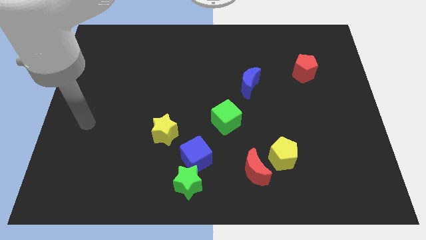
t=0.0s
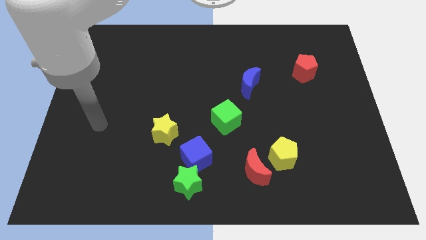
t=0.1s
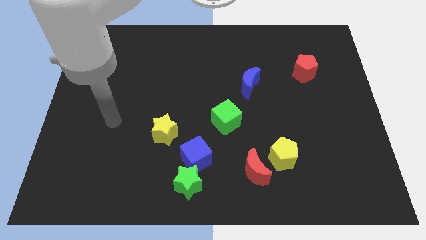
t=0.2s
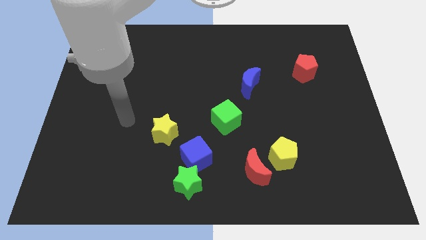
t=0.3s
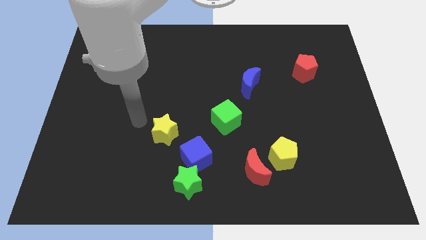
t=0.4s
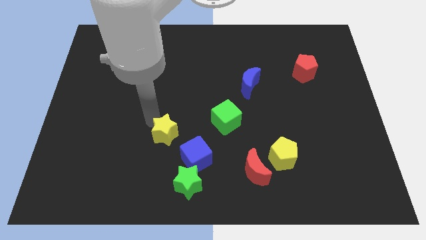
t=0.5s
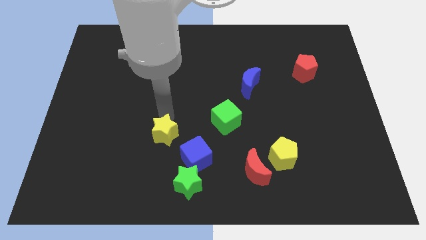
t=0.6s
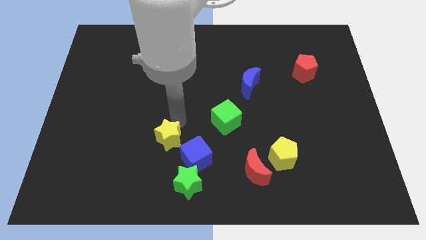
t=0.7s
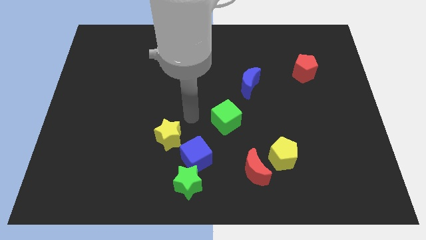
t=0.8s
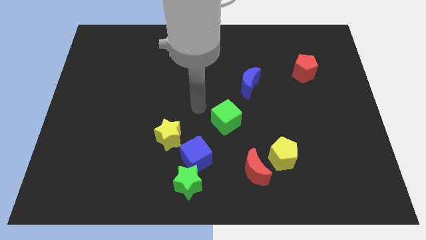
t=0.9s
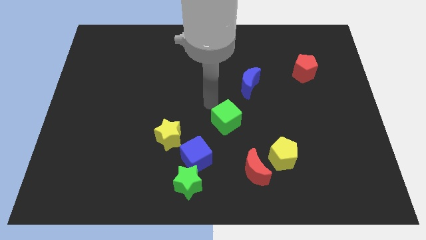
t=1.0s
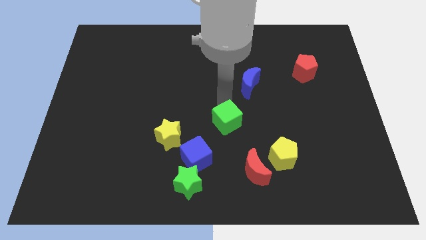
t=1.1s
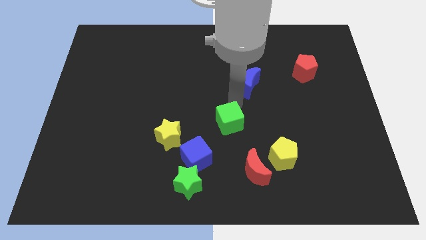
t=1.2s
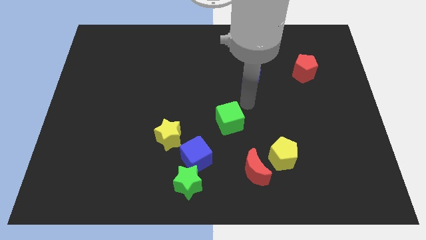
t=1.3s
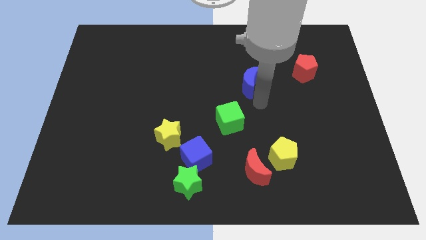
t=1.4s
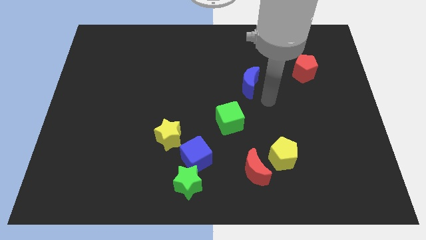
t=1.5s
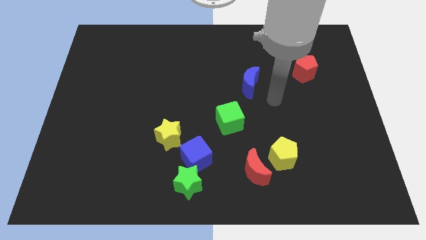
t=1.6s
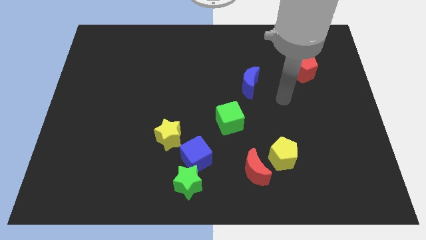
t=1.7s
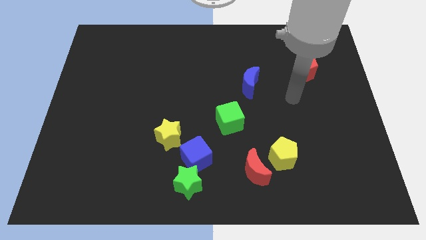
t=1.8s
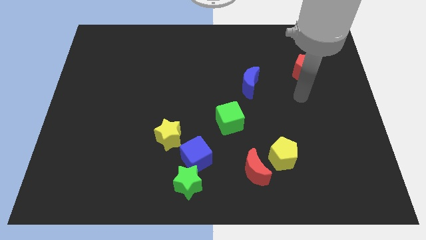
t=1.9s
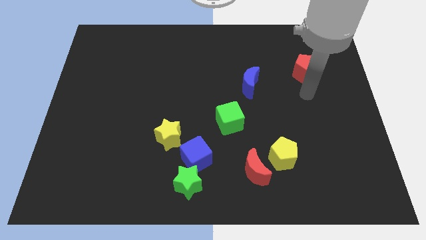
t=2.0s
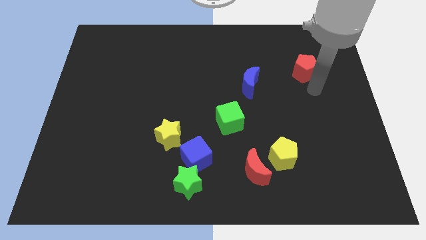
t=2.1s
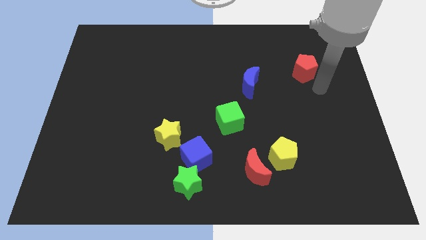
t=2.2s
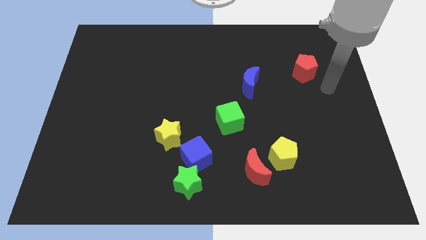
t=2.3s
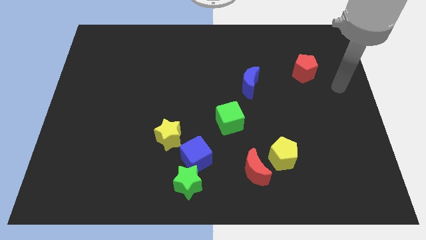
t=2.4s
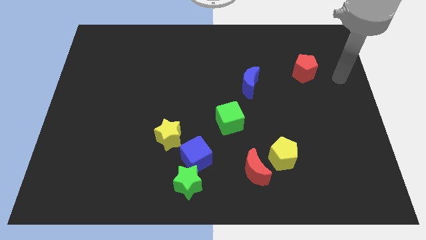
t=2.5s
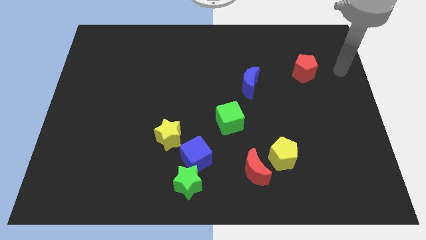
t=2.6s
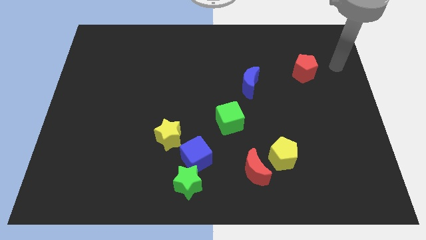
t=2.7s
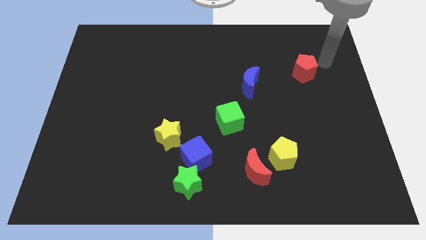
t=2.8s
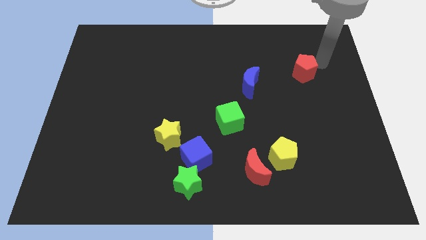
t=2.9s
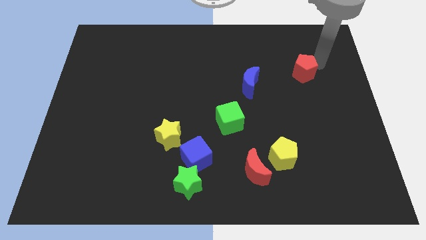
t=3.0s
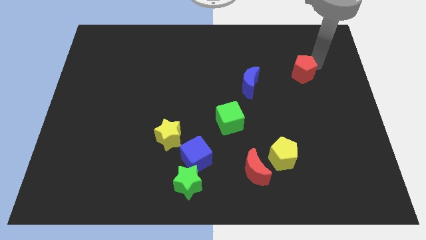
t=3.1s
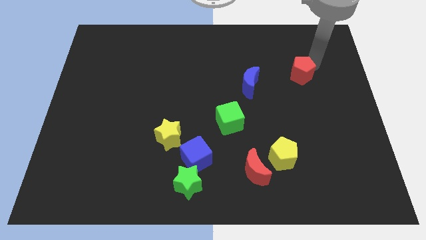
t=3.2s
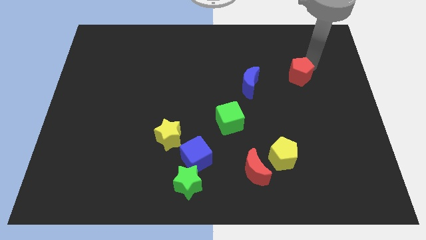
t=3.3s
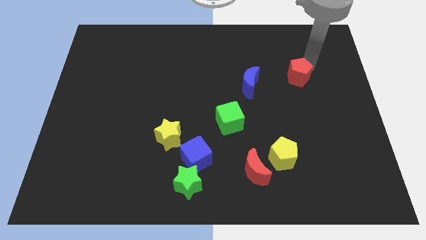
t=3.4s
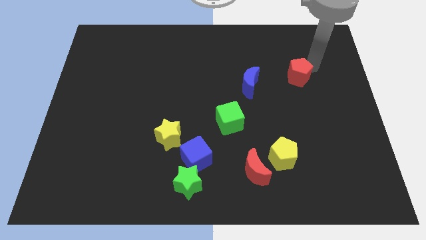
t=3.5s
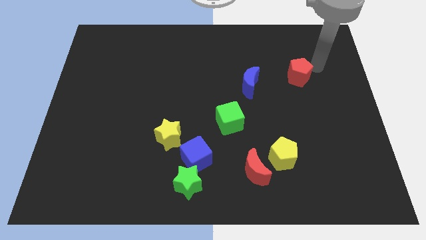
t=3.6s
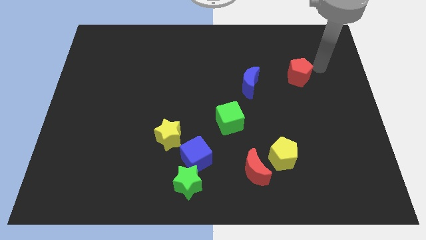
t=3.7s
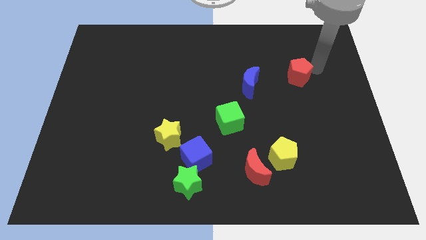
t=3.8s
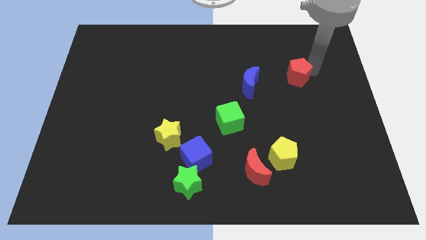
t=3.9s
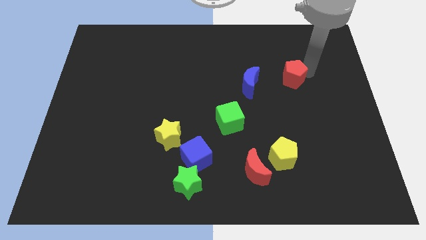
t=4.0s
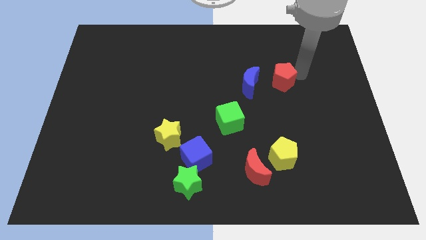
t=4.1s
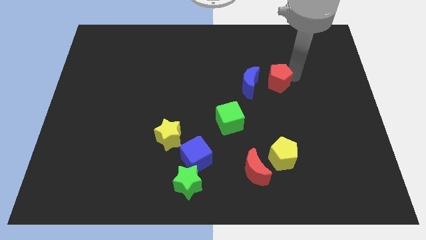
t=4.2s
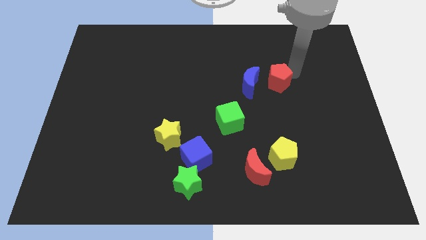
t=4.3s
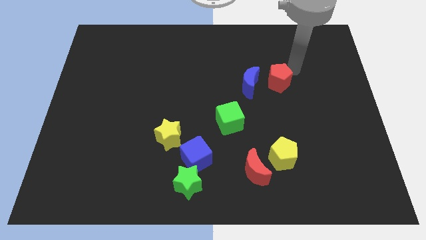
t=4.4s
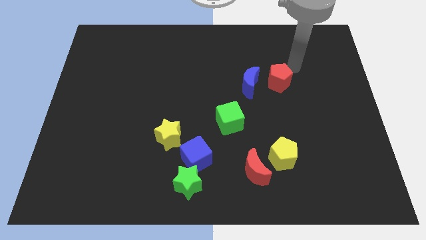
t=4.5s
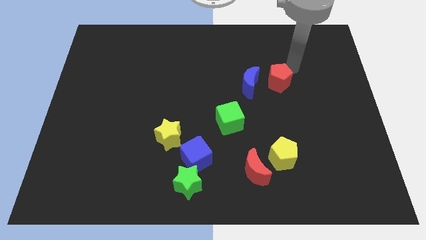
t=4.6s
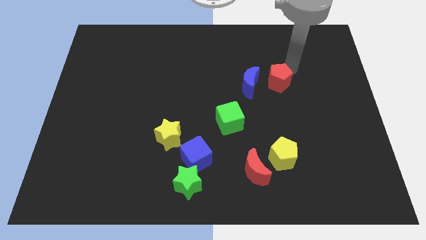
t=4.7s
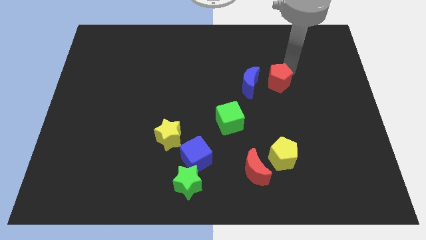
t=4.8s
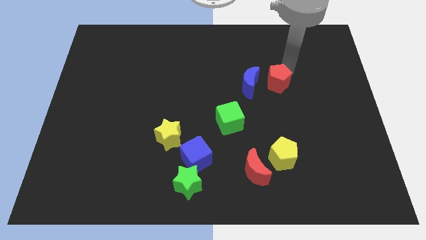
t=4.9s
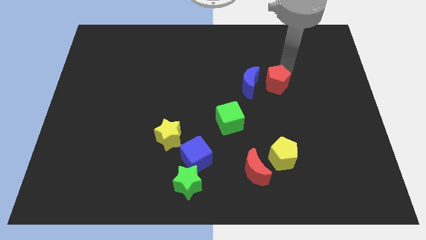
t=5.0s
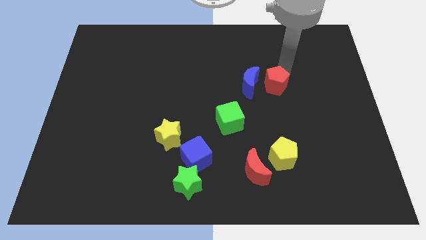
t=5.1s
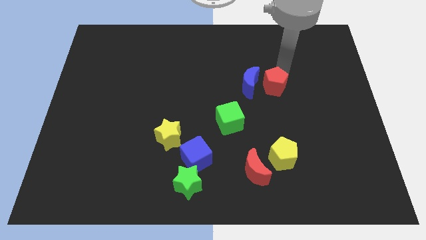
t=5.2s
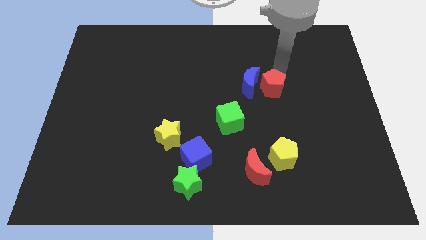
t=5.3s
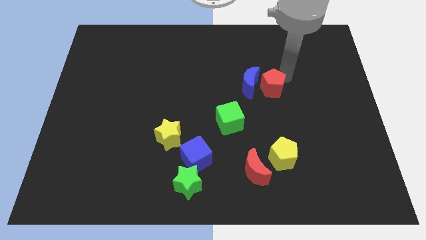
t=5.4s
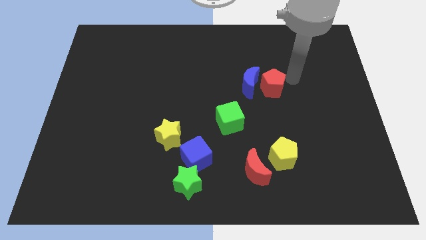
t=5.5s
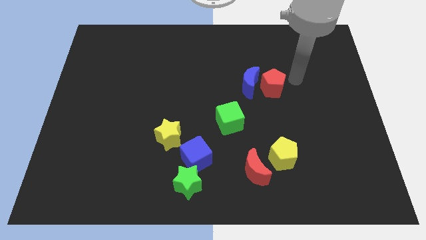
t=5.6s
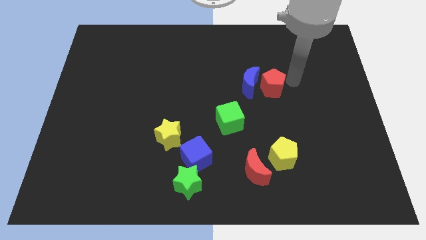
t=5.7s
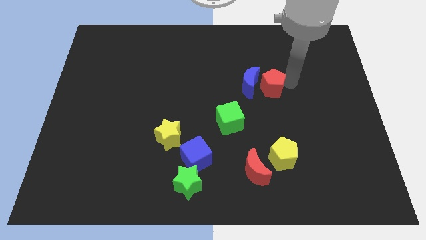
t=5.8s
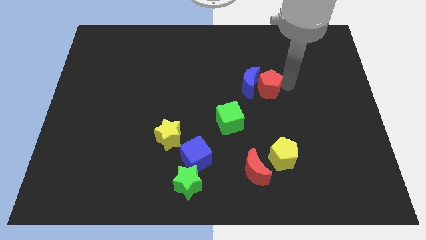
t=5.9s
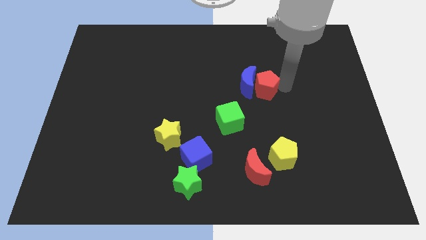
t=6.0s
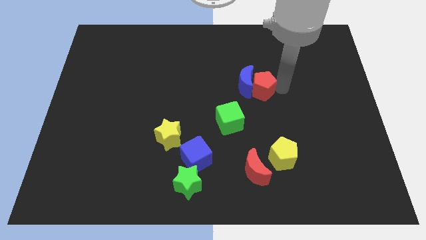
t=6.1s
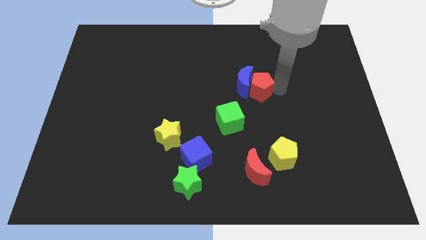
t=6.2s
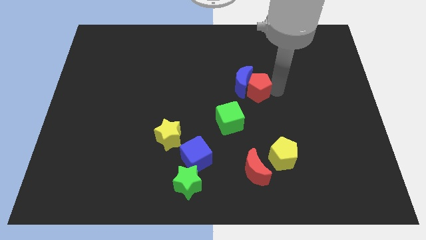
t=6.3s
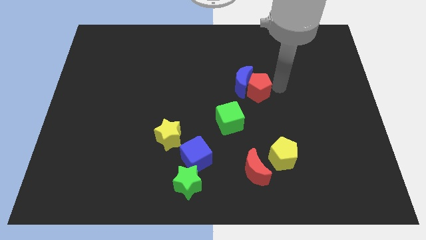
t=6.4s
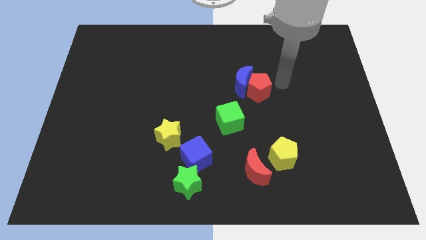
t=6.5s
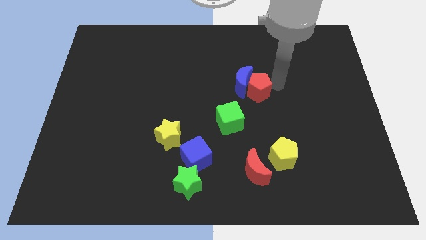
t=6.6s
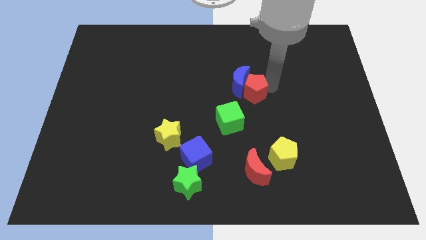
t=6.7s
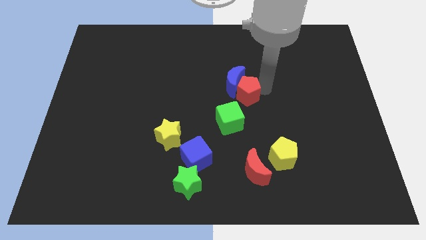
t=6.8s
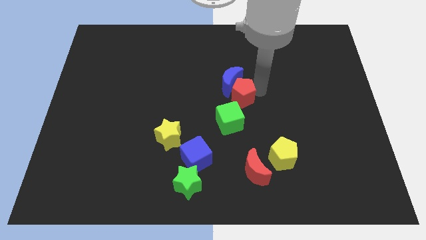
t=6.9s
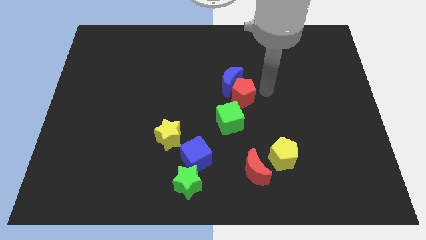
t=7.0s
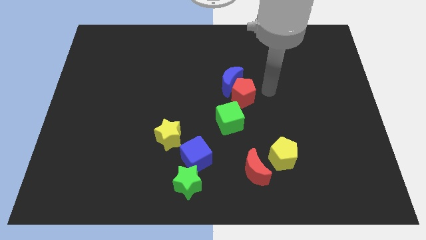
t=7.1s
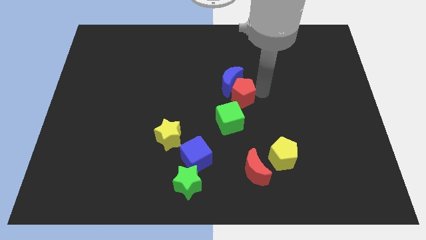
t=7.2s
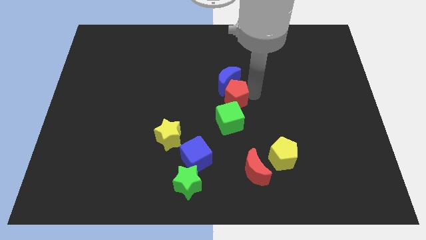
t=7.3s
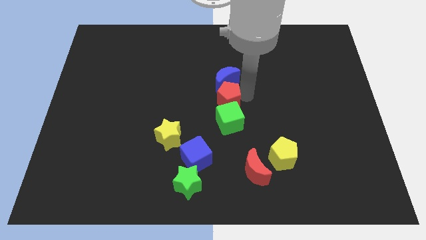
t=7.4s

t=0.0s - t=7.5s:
push the red pentagon to the top left side of the green cube
